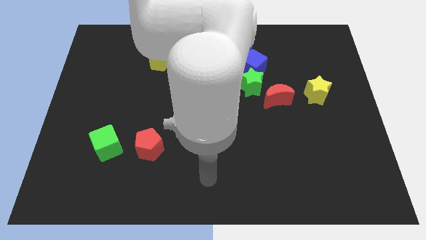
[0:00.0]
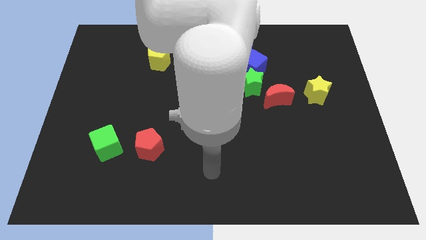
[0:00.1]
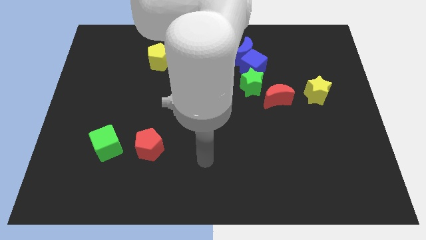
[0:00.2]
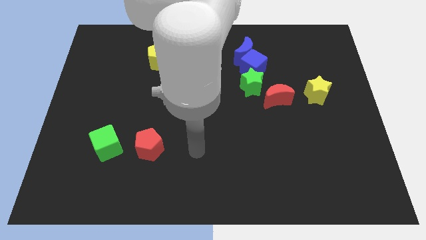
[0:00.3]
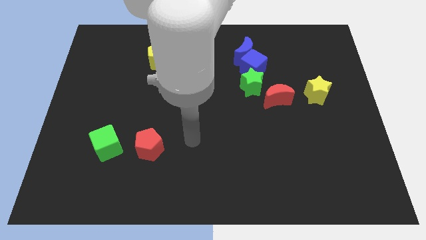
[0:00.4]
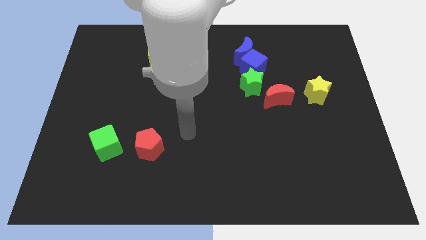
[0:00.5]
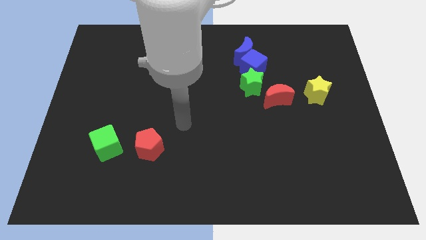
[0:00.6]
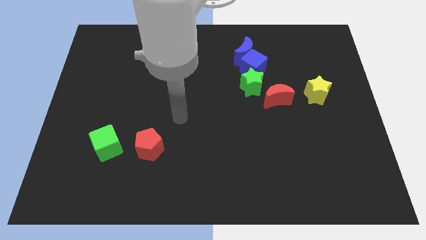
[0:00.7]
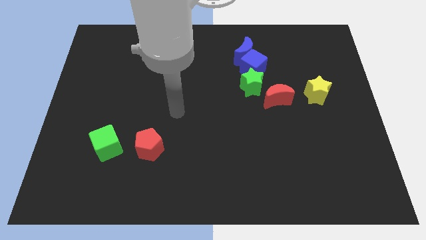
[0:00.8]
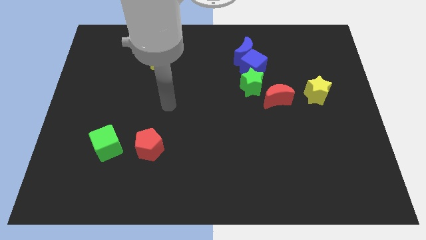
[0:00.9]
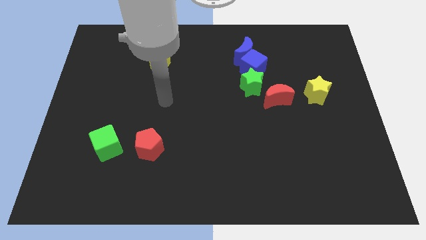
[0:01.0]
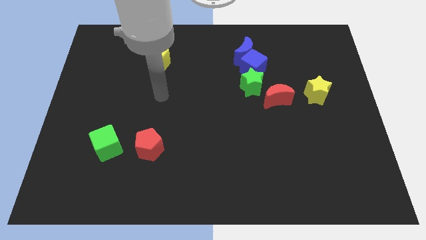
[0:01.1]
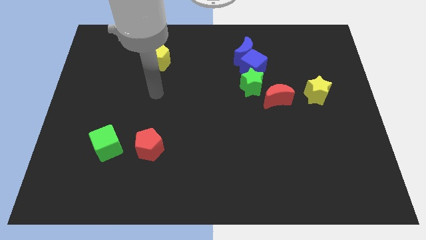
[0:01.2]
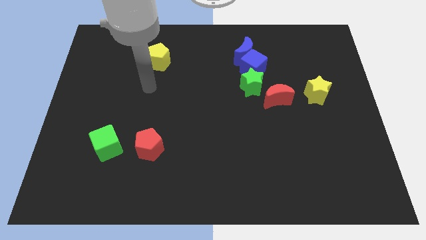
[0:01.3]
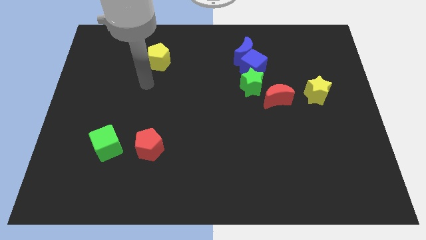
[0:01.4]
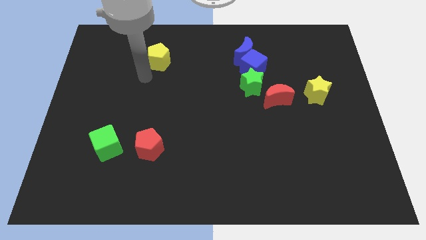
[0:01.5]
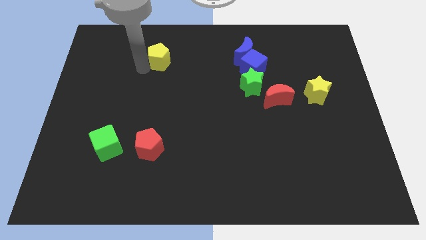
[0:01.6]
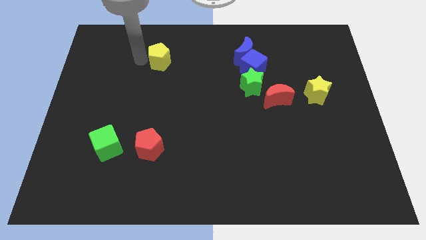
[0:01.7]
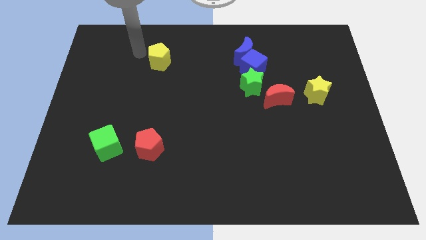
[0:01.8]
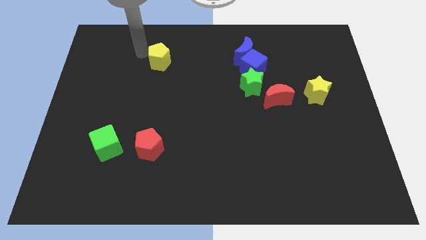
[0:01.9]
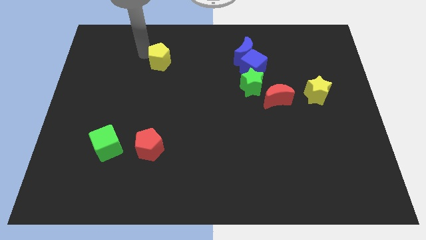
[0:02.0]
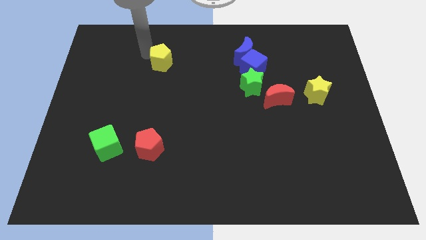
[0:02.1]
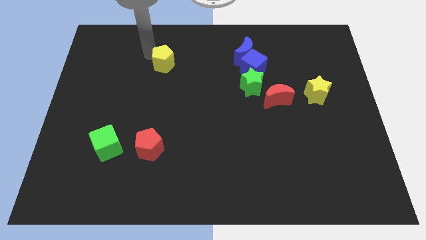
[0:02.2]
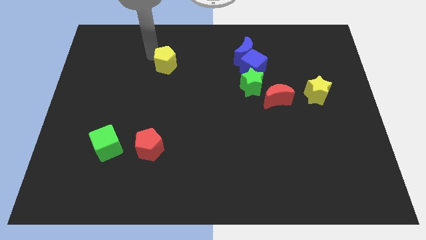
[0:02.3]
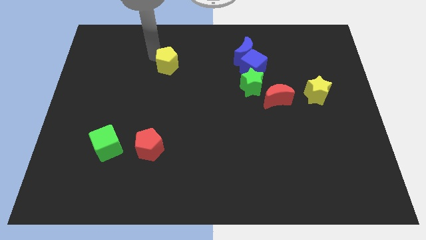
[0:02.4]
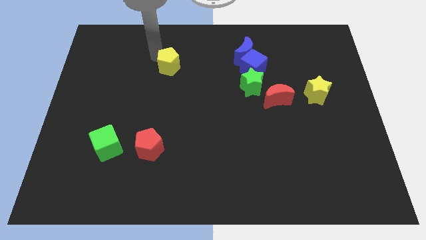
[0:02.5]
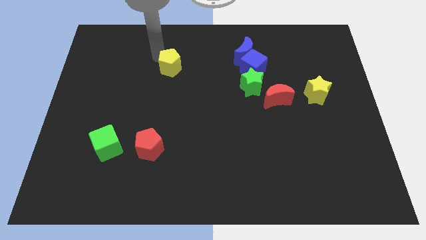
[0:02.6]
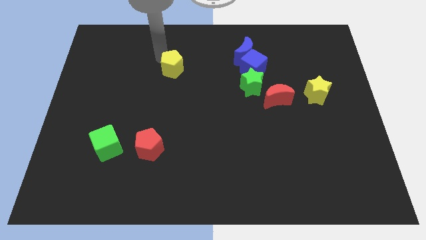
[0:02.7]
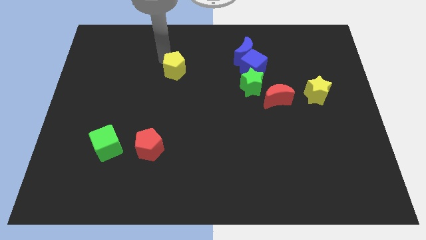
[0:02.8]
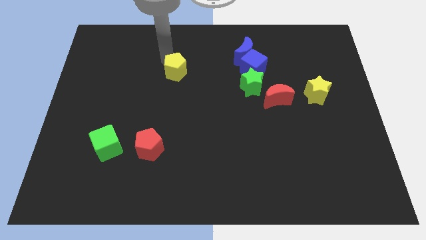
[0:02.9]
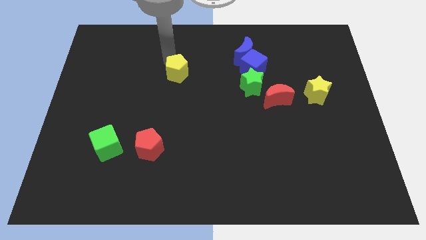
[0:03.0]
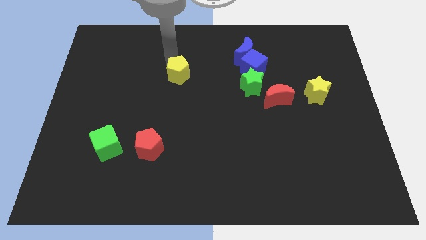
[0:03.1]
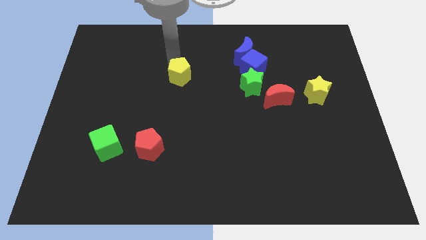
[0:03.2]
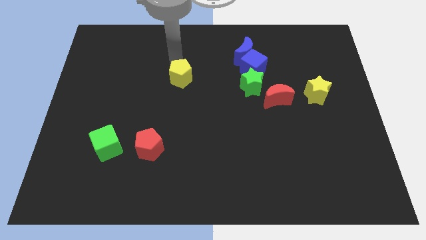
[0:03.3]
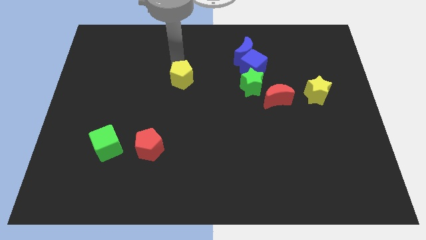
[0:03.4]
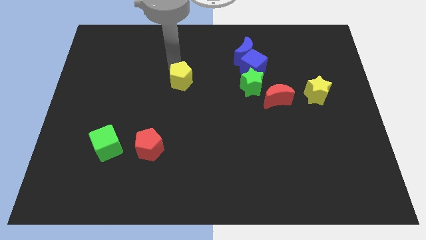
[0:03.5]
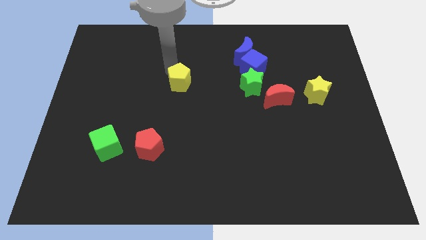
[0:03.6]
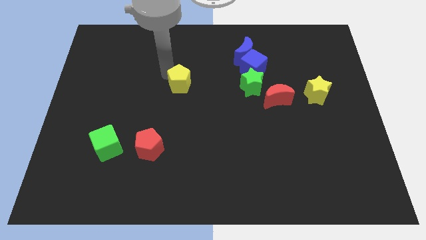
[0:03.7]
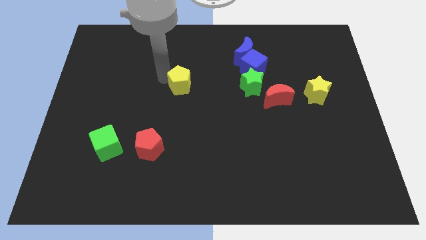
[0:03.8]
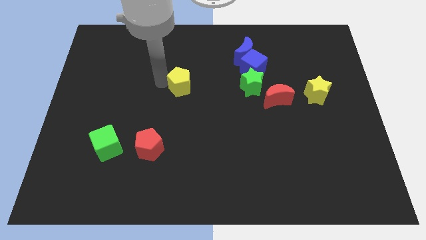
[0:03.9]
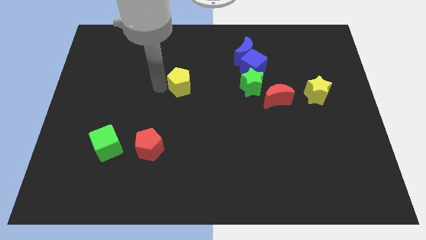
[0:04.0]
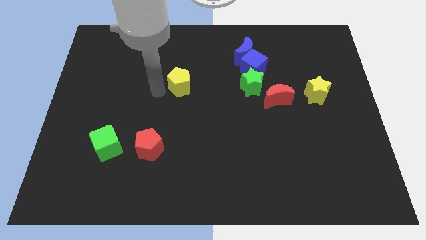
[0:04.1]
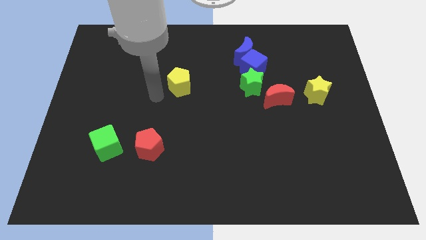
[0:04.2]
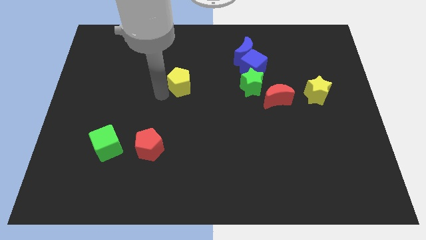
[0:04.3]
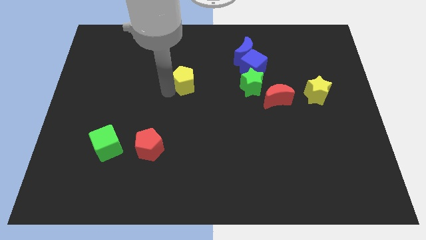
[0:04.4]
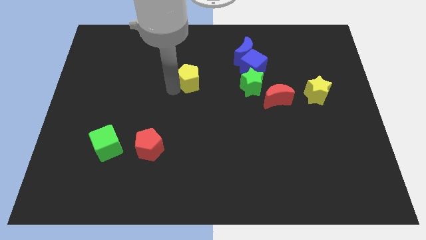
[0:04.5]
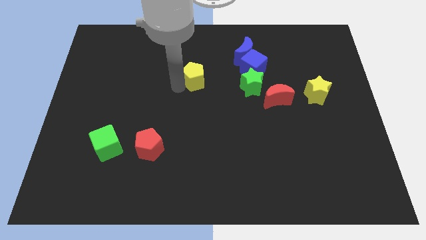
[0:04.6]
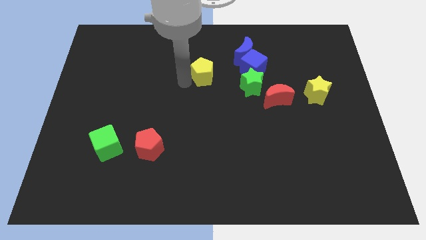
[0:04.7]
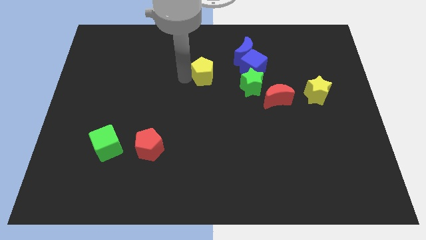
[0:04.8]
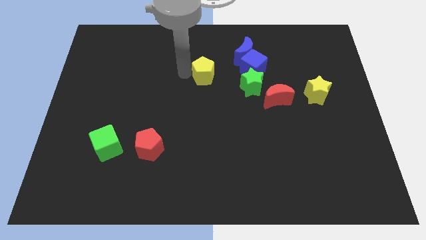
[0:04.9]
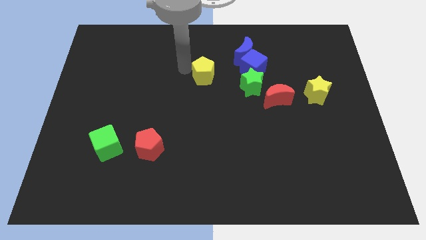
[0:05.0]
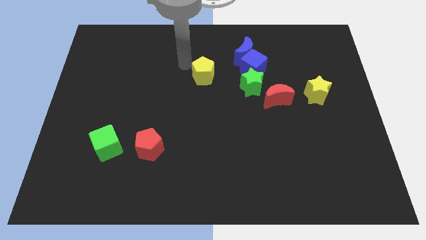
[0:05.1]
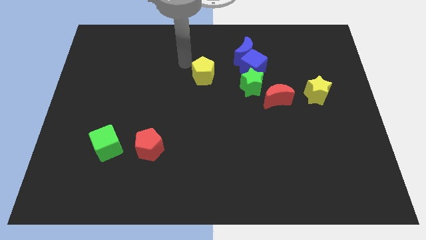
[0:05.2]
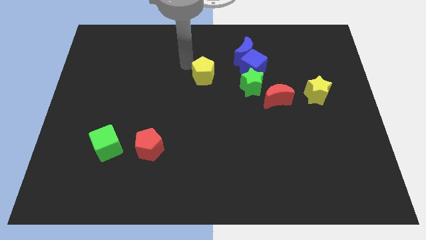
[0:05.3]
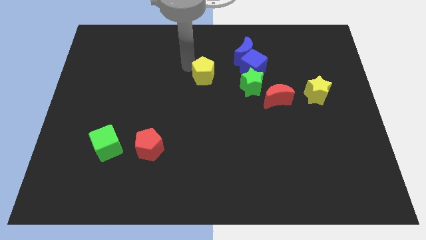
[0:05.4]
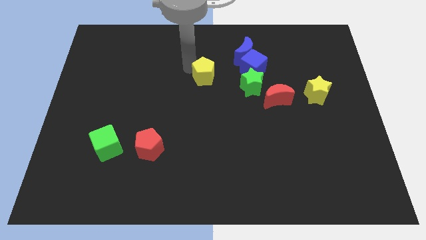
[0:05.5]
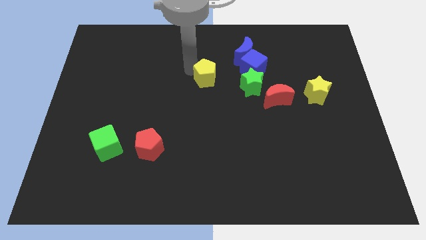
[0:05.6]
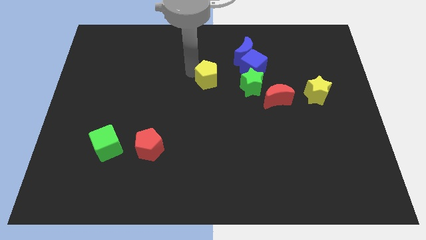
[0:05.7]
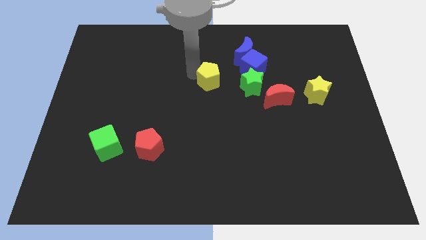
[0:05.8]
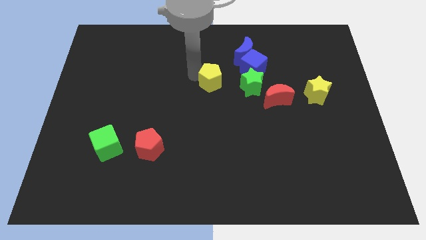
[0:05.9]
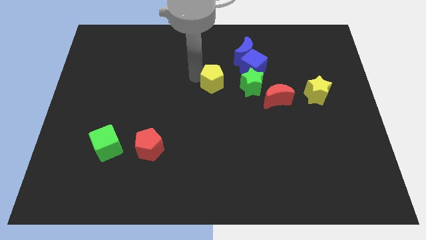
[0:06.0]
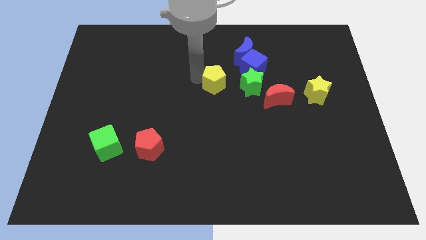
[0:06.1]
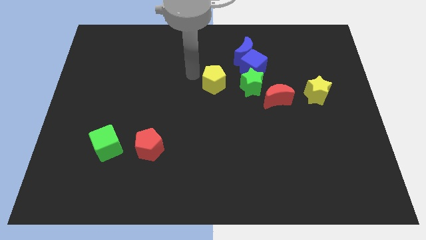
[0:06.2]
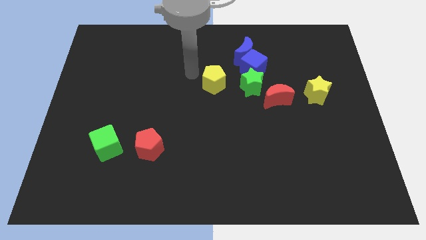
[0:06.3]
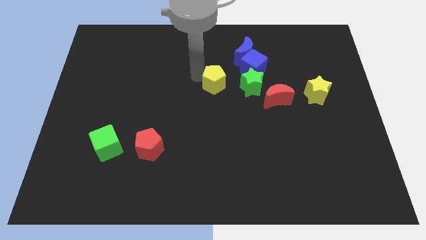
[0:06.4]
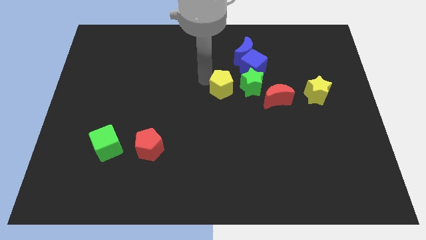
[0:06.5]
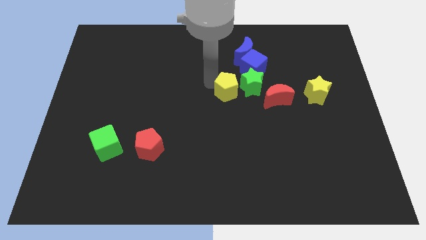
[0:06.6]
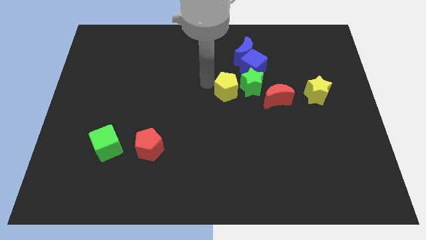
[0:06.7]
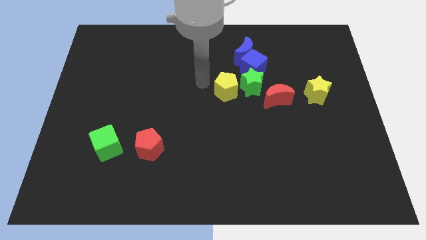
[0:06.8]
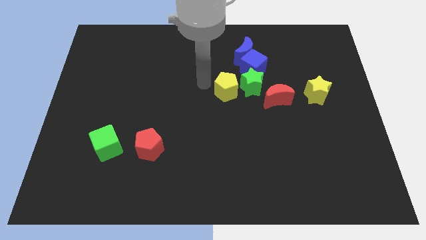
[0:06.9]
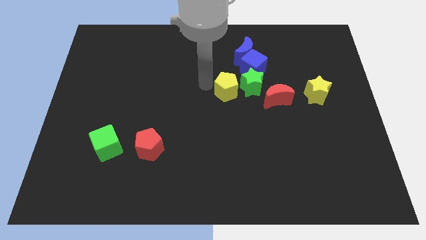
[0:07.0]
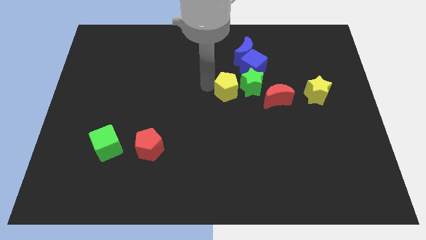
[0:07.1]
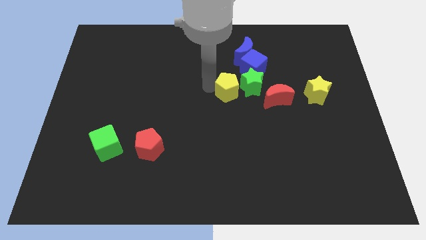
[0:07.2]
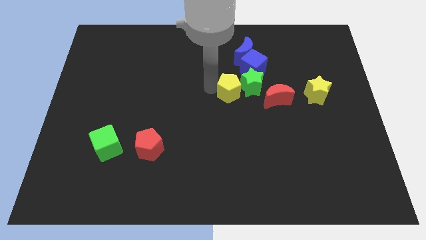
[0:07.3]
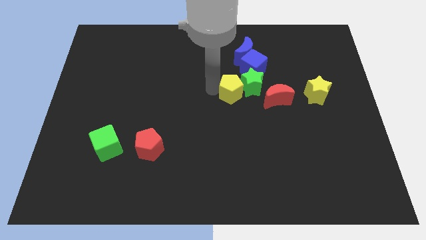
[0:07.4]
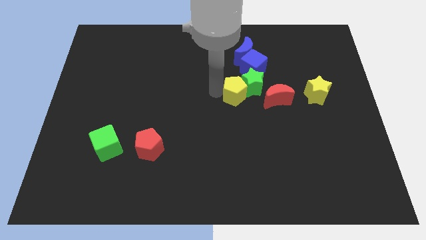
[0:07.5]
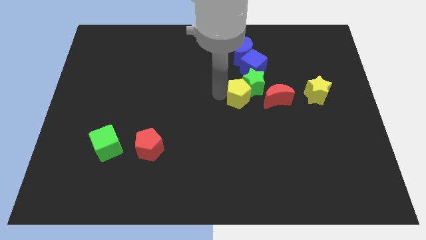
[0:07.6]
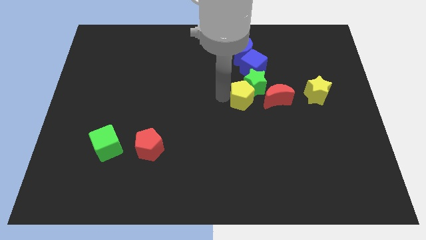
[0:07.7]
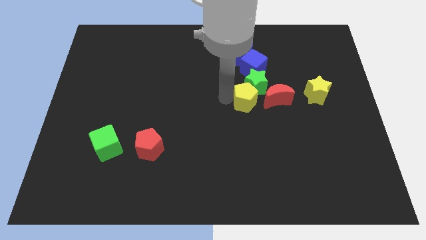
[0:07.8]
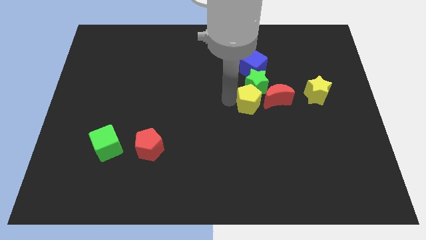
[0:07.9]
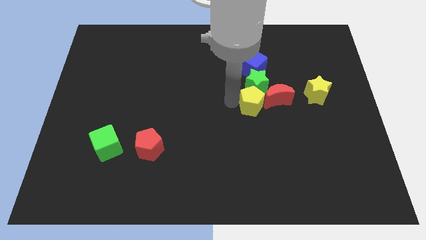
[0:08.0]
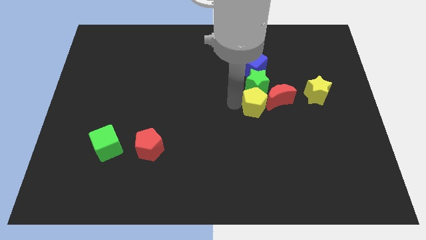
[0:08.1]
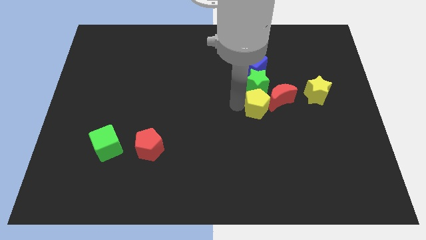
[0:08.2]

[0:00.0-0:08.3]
slide the yellow pentagon next to the red moon
